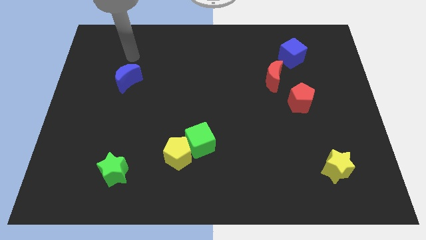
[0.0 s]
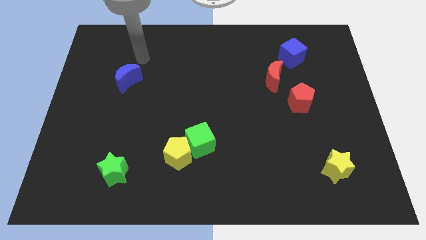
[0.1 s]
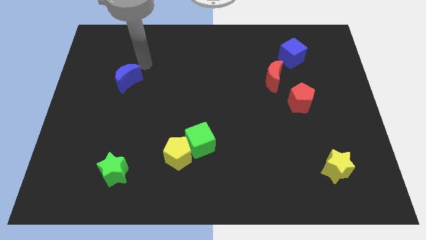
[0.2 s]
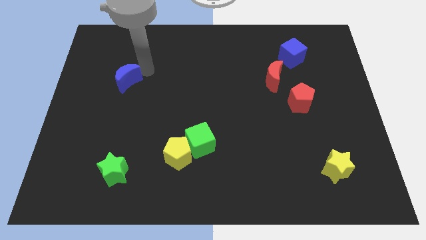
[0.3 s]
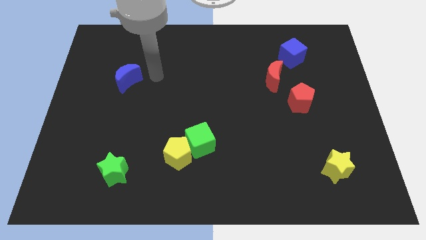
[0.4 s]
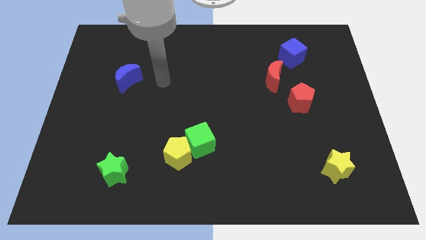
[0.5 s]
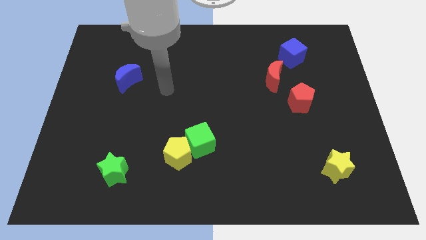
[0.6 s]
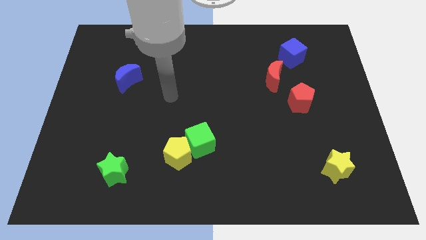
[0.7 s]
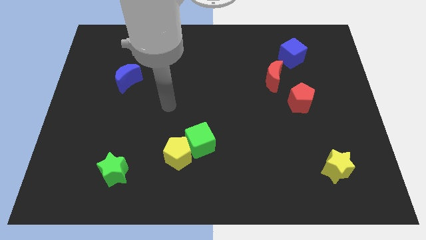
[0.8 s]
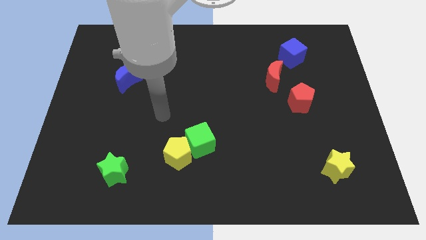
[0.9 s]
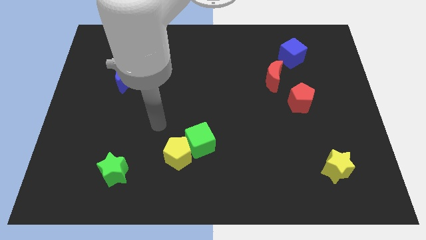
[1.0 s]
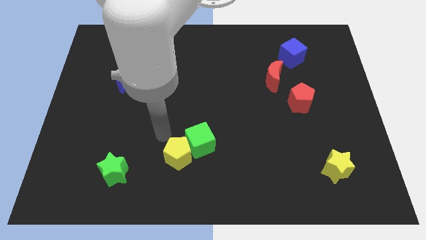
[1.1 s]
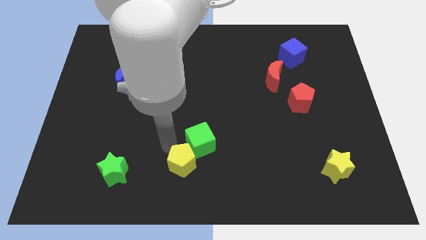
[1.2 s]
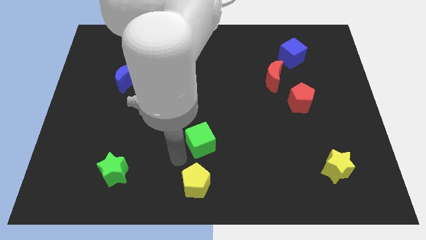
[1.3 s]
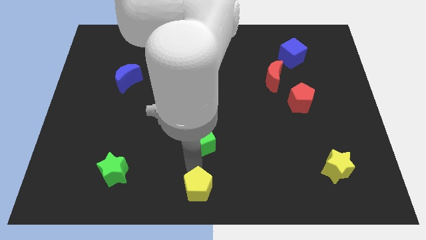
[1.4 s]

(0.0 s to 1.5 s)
pull the green cube apart from the yellow pentagon

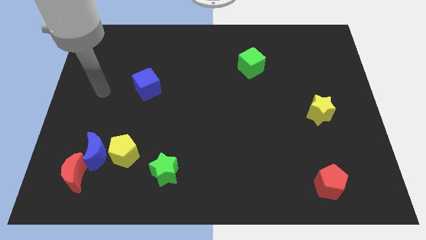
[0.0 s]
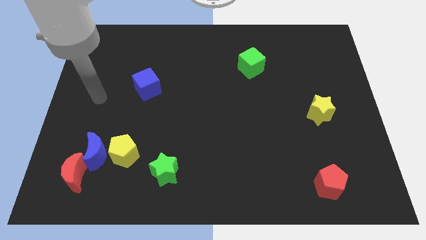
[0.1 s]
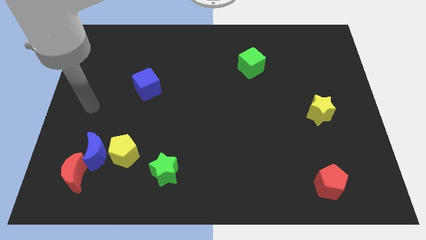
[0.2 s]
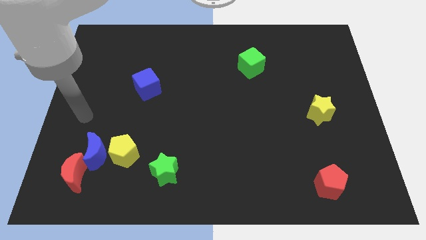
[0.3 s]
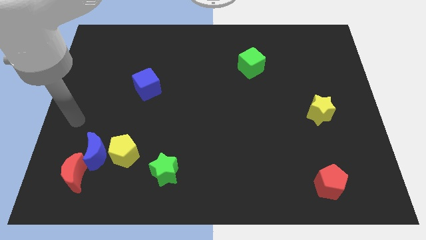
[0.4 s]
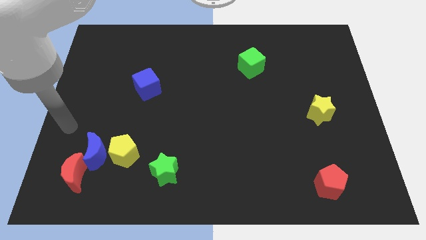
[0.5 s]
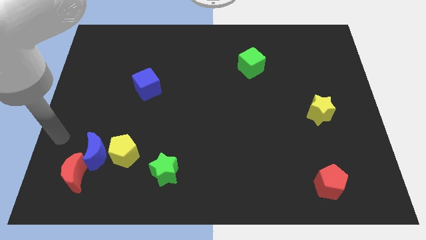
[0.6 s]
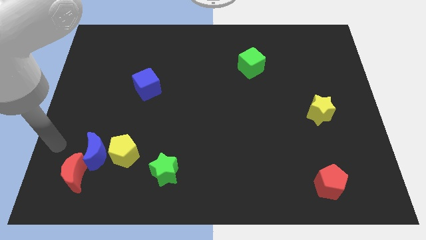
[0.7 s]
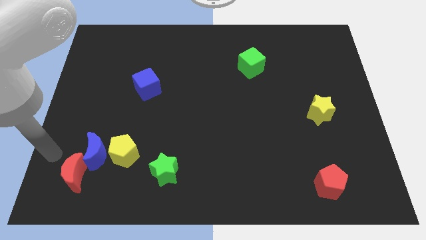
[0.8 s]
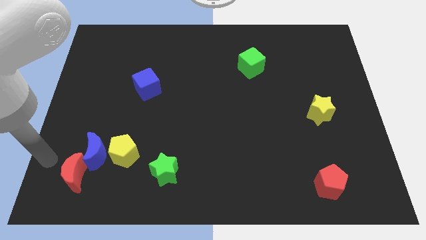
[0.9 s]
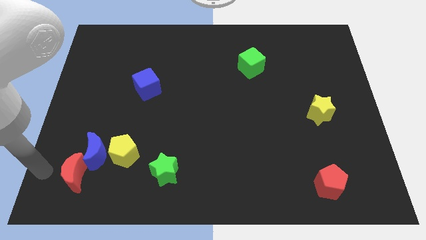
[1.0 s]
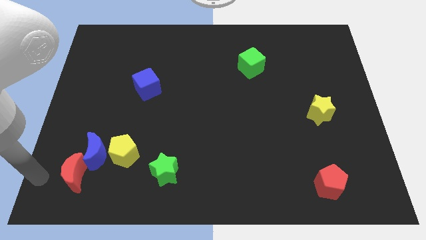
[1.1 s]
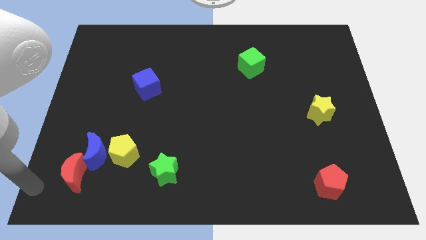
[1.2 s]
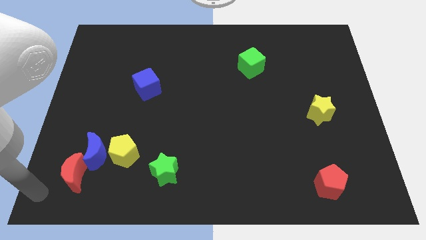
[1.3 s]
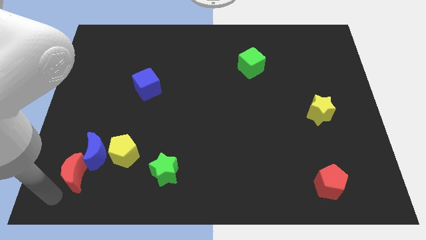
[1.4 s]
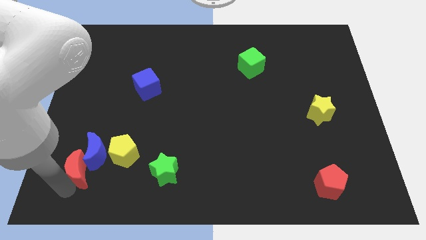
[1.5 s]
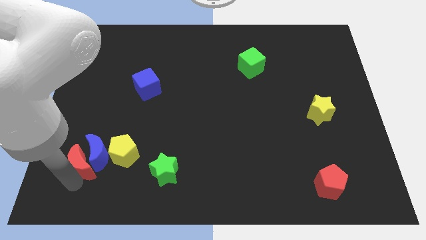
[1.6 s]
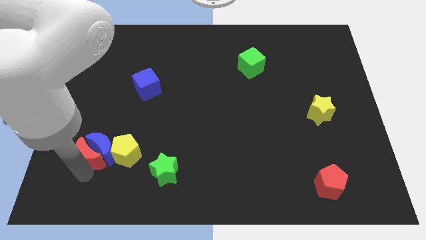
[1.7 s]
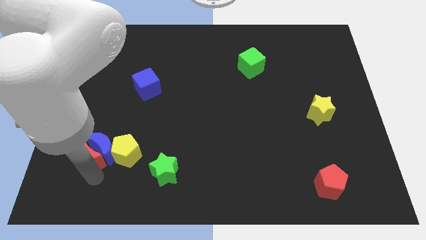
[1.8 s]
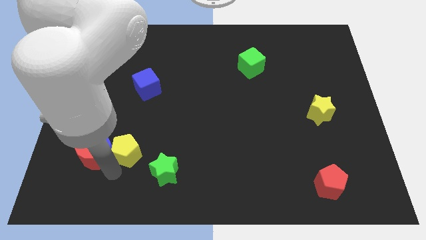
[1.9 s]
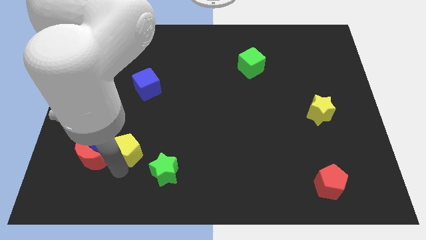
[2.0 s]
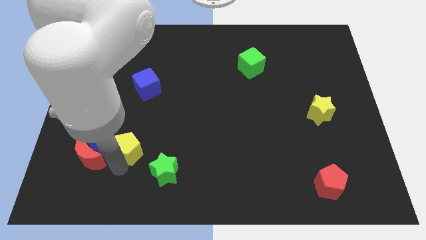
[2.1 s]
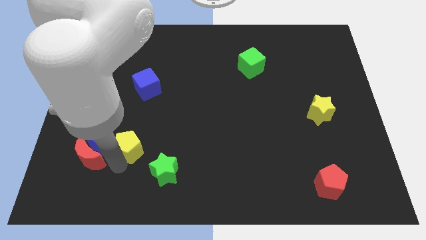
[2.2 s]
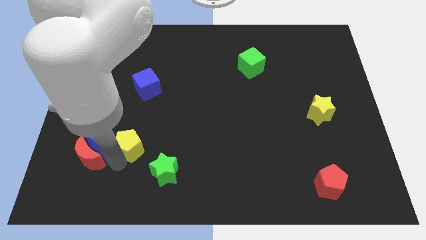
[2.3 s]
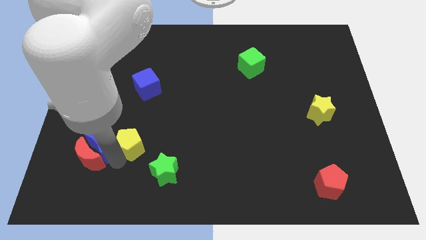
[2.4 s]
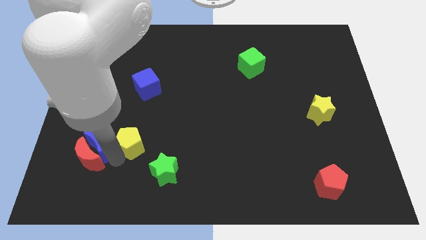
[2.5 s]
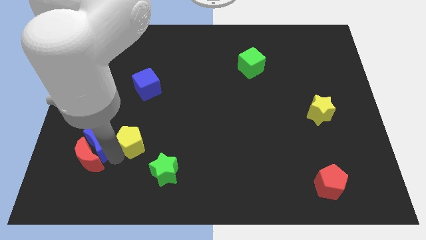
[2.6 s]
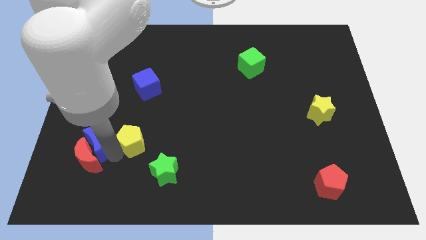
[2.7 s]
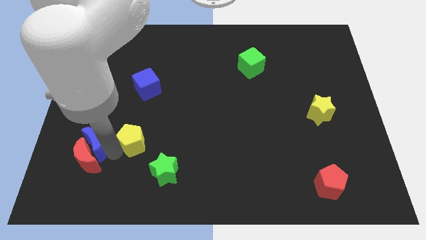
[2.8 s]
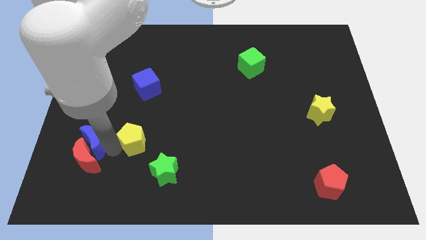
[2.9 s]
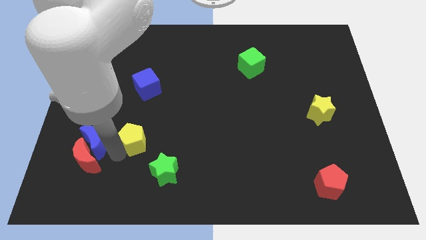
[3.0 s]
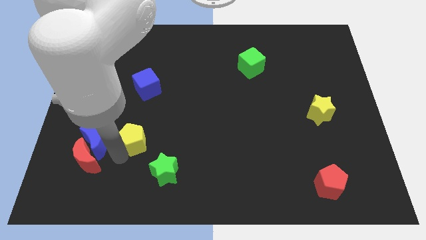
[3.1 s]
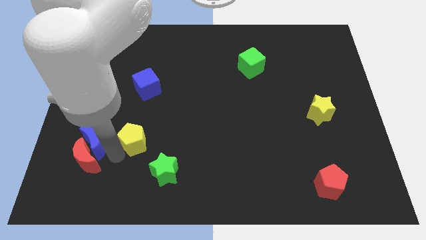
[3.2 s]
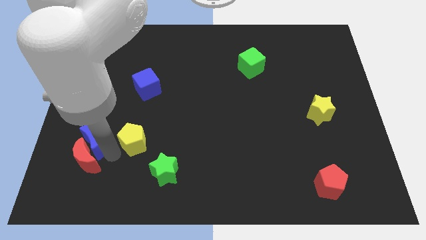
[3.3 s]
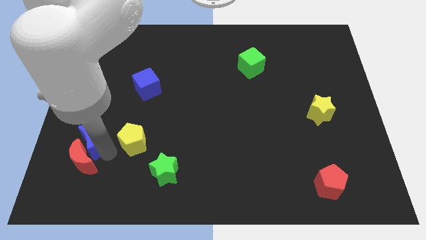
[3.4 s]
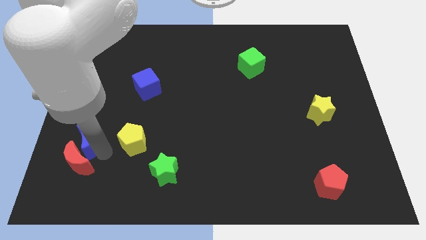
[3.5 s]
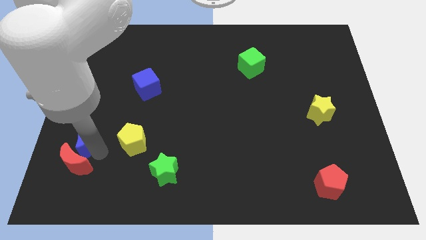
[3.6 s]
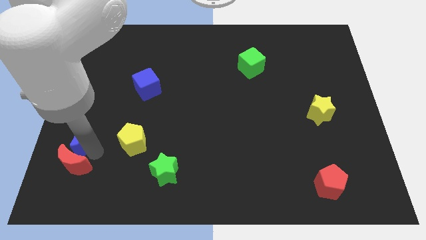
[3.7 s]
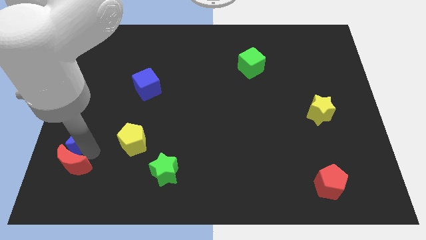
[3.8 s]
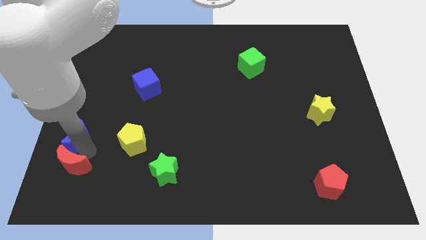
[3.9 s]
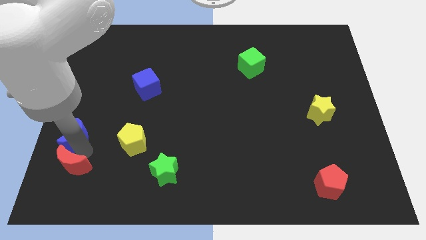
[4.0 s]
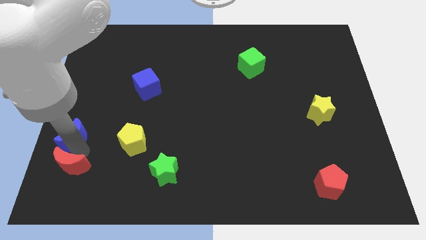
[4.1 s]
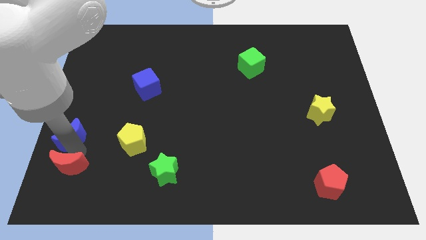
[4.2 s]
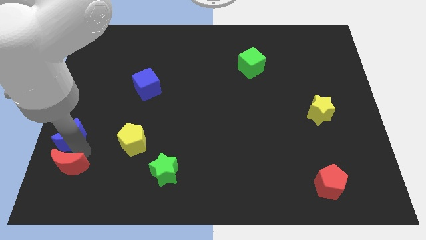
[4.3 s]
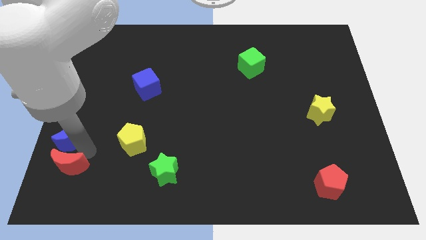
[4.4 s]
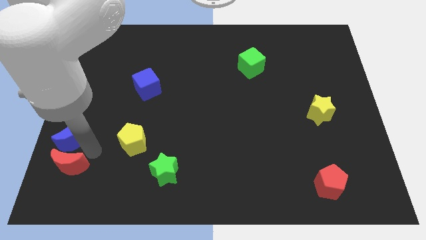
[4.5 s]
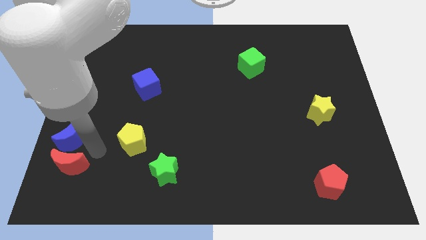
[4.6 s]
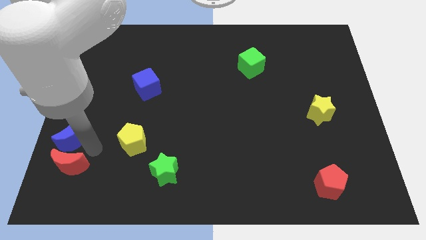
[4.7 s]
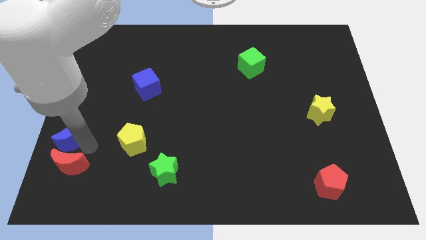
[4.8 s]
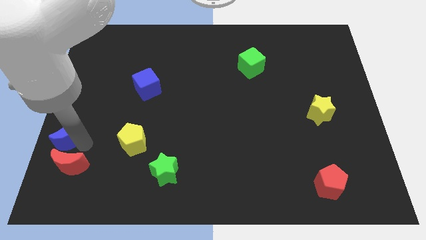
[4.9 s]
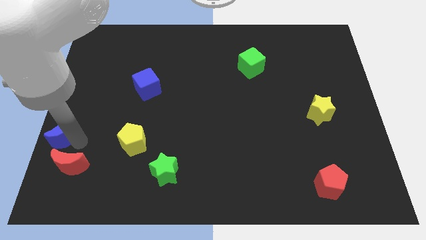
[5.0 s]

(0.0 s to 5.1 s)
move the blue moon away from the yellow pentagon and red moon

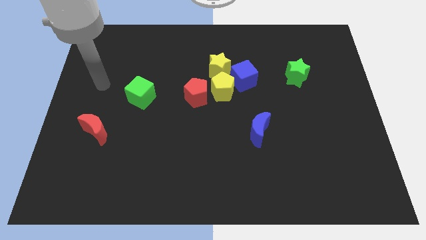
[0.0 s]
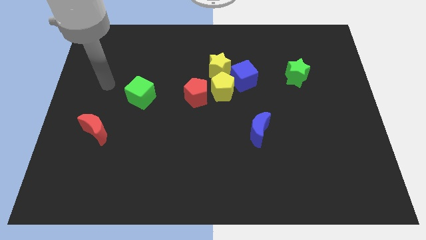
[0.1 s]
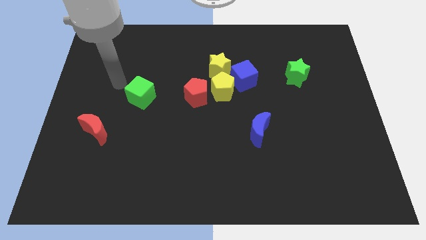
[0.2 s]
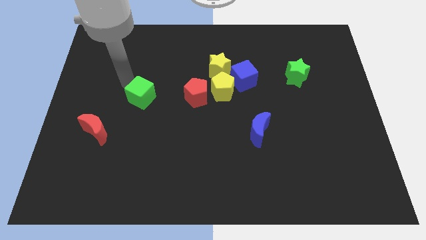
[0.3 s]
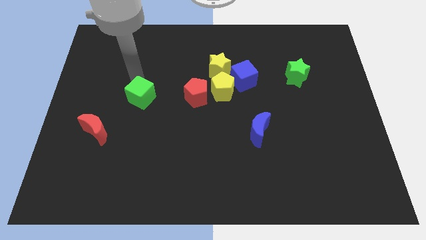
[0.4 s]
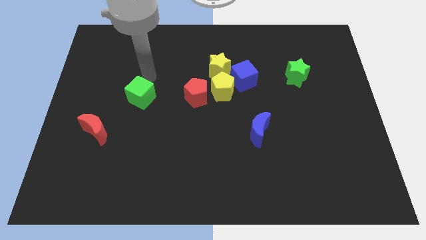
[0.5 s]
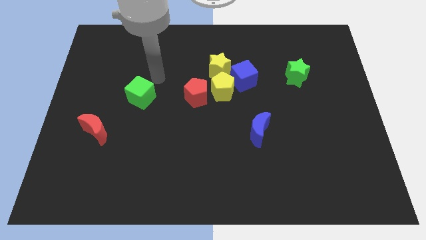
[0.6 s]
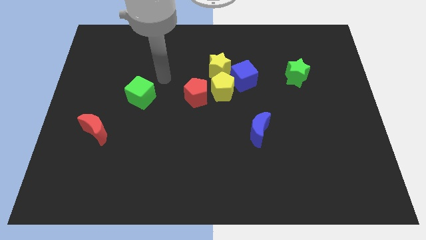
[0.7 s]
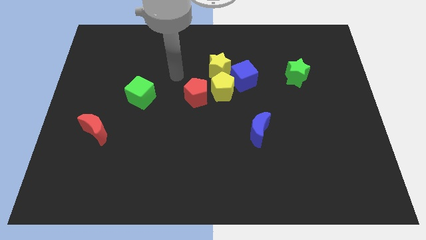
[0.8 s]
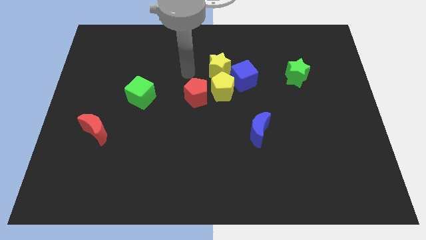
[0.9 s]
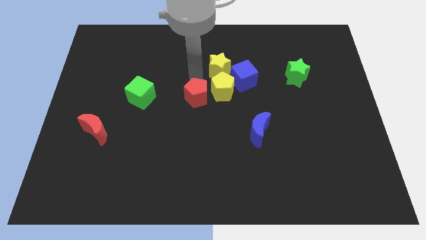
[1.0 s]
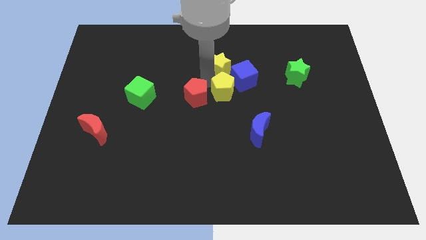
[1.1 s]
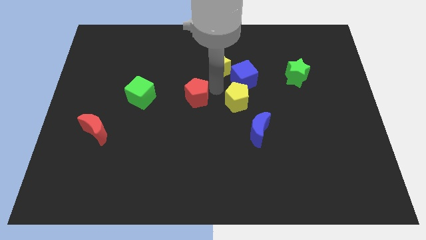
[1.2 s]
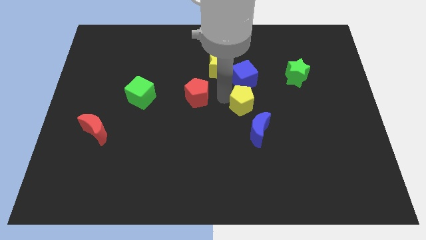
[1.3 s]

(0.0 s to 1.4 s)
move the red pentagon away from the yellow pentagon

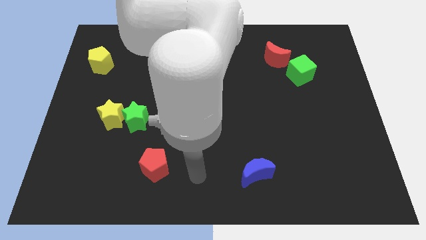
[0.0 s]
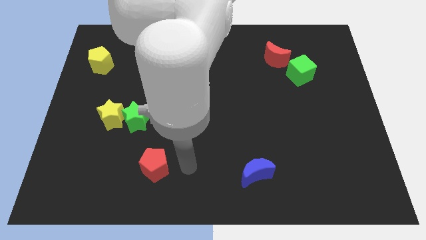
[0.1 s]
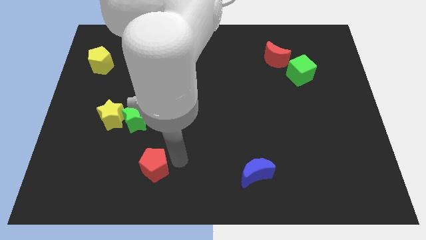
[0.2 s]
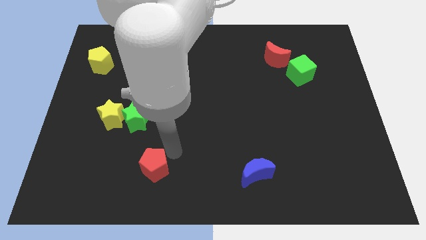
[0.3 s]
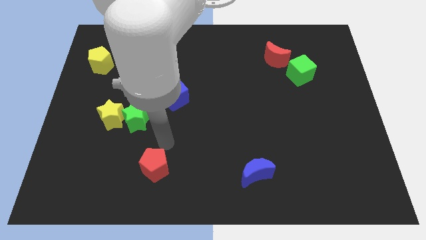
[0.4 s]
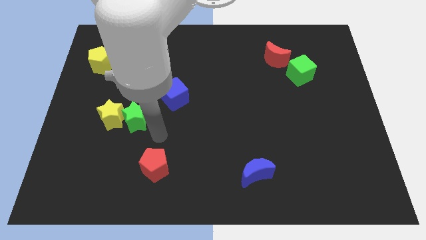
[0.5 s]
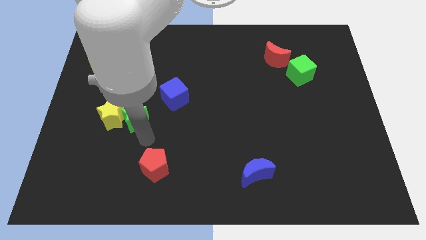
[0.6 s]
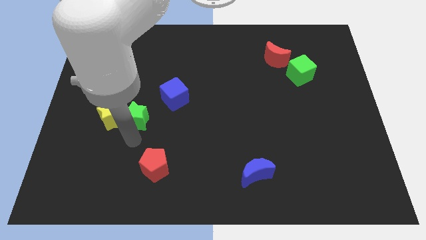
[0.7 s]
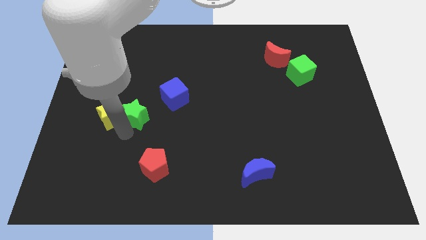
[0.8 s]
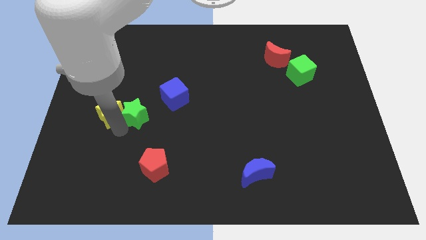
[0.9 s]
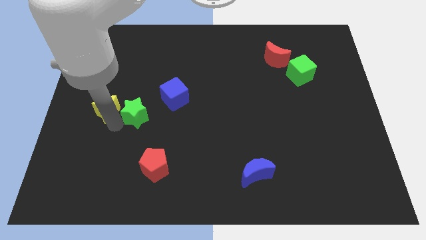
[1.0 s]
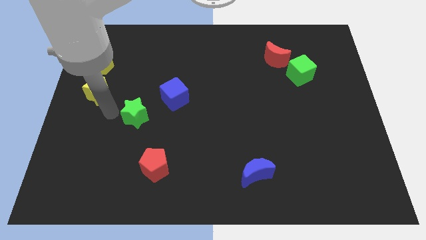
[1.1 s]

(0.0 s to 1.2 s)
pull the green star apart from the yellow star

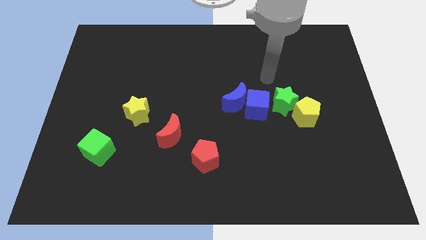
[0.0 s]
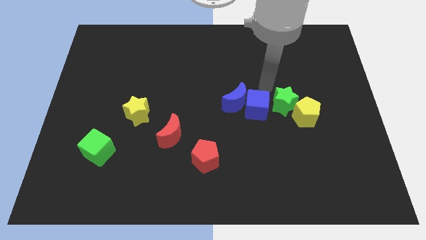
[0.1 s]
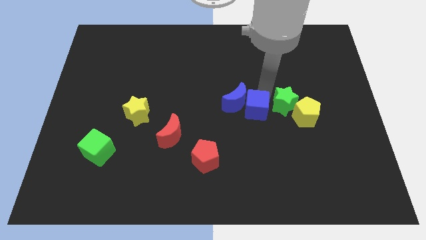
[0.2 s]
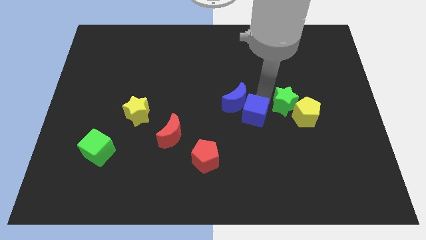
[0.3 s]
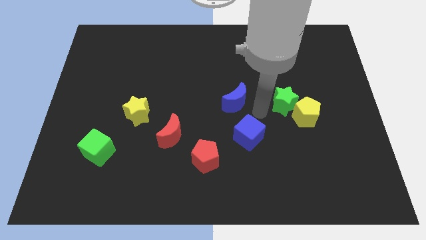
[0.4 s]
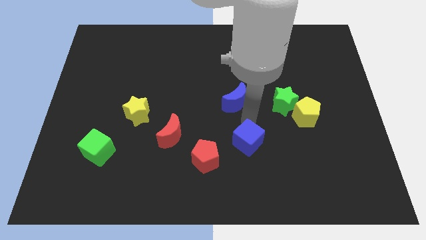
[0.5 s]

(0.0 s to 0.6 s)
move the blue moon away from the blue cube
